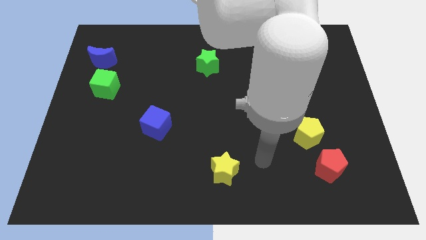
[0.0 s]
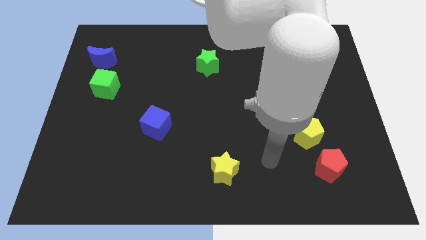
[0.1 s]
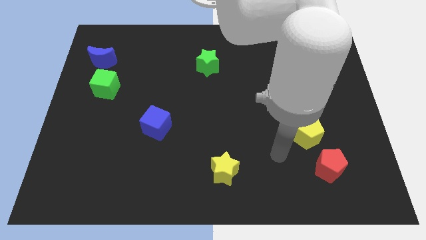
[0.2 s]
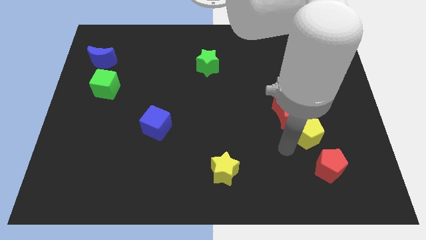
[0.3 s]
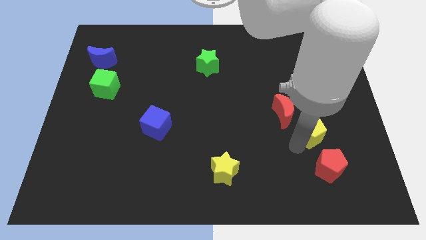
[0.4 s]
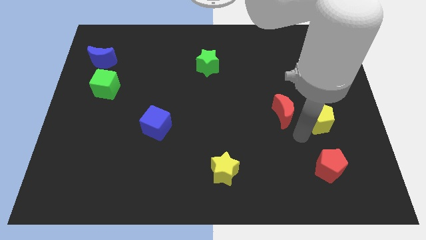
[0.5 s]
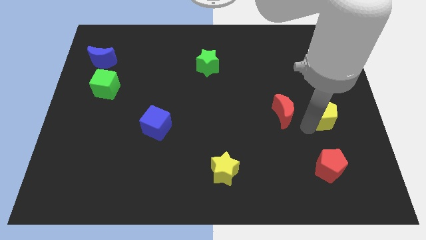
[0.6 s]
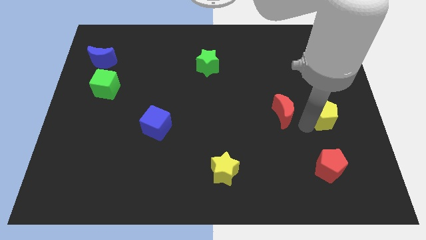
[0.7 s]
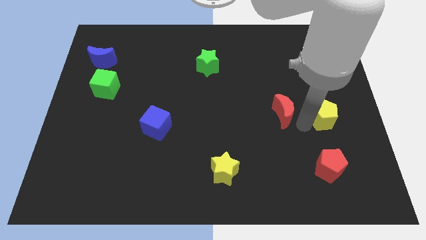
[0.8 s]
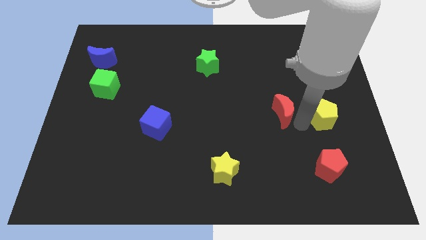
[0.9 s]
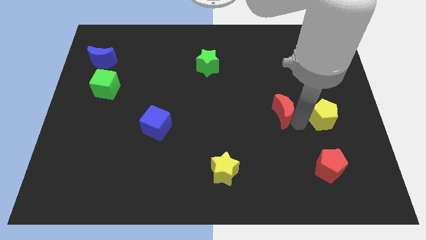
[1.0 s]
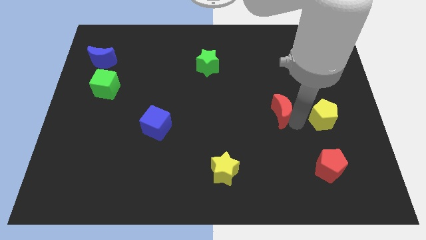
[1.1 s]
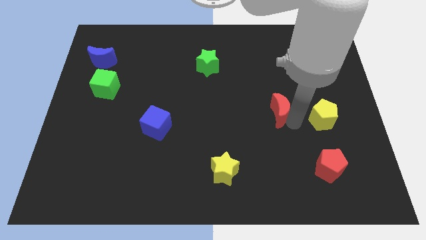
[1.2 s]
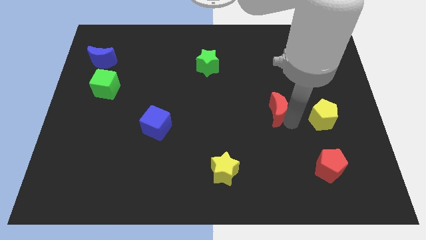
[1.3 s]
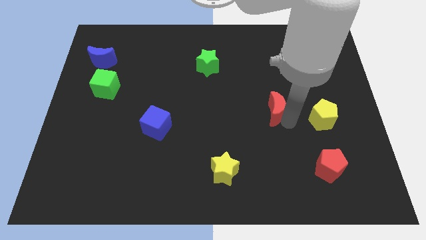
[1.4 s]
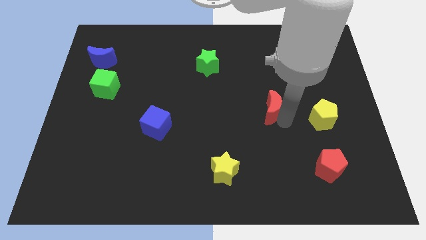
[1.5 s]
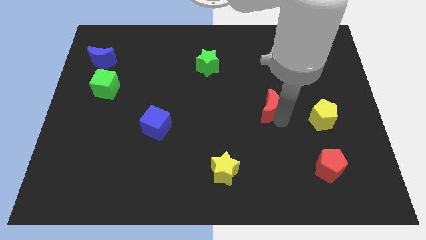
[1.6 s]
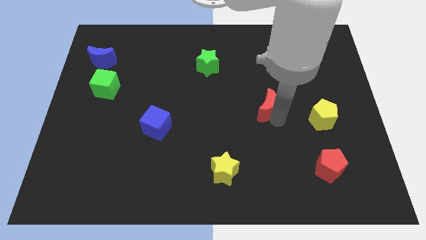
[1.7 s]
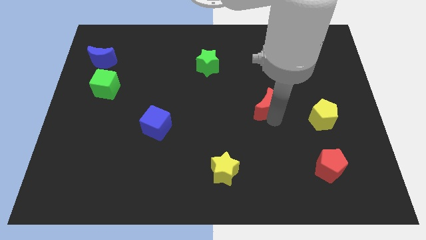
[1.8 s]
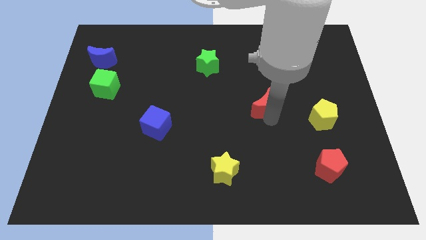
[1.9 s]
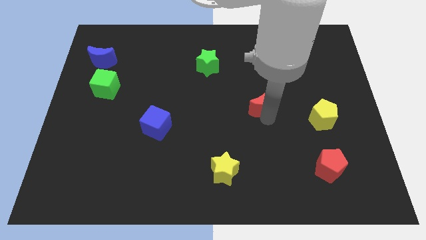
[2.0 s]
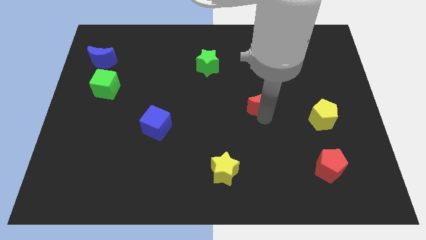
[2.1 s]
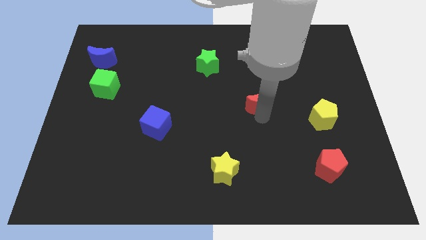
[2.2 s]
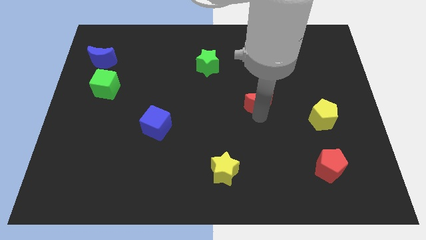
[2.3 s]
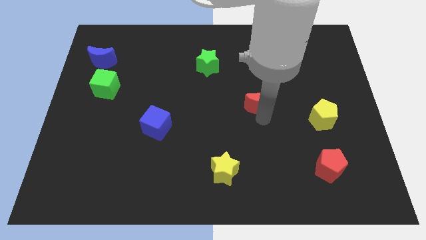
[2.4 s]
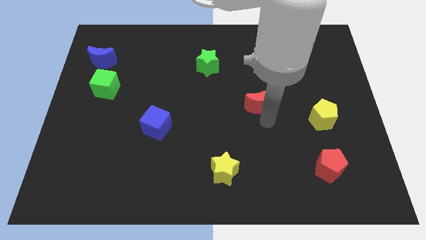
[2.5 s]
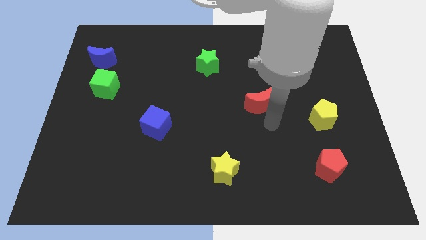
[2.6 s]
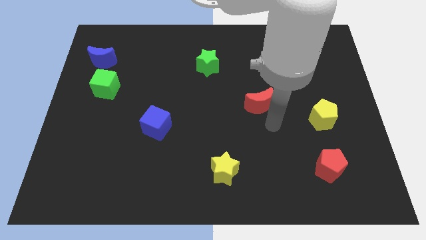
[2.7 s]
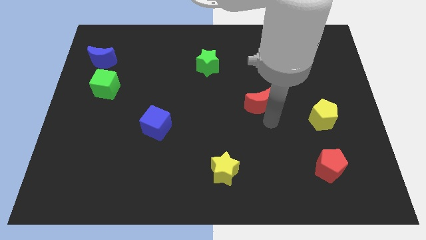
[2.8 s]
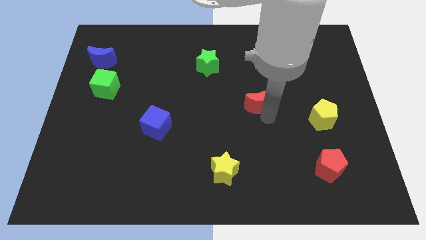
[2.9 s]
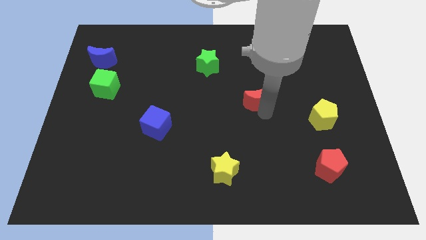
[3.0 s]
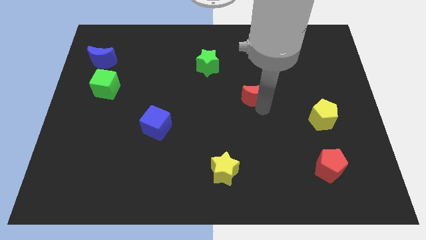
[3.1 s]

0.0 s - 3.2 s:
push the red moon diagonally upwards and left a little

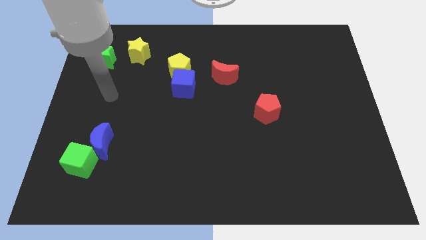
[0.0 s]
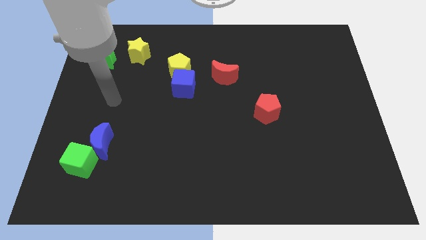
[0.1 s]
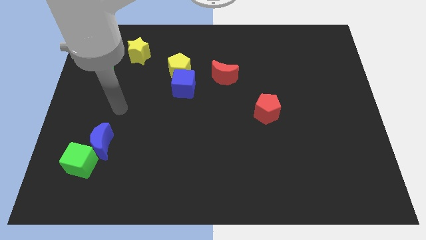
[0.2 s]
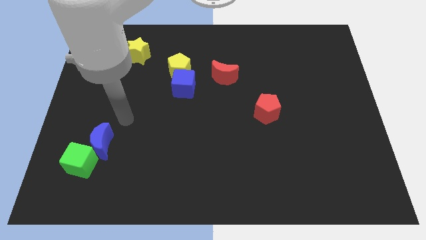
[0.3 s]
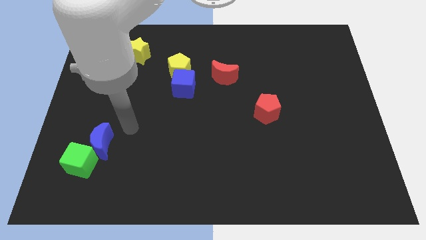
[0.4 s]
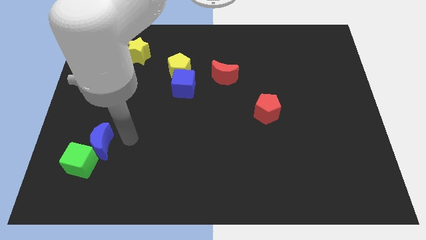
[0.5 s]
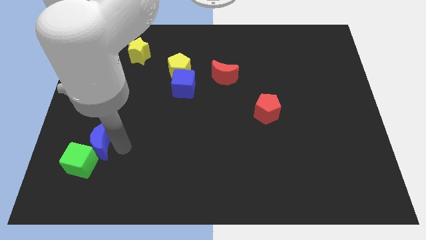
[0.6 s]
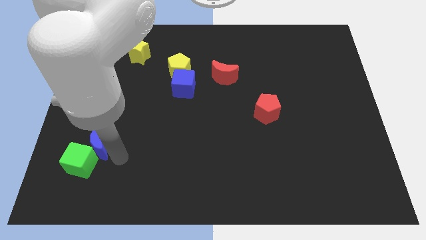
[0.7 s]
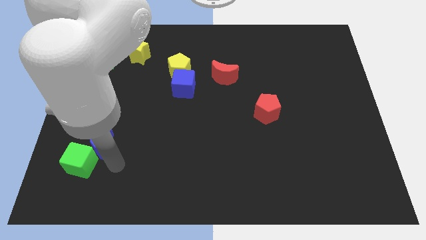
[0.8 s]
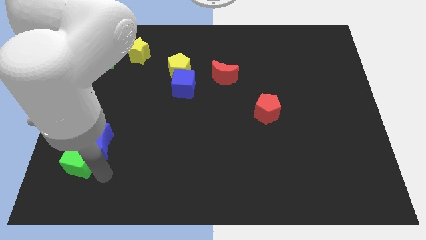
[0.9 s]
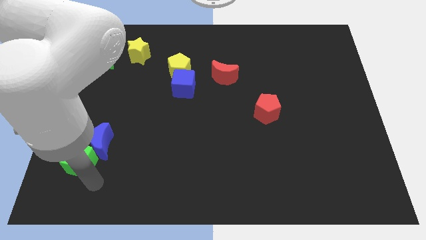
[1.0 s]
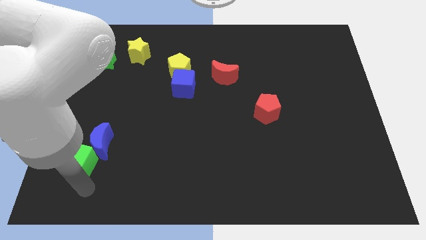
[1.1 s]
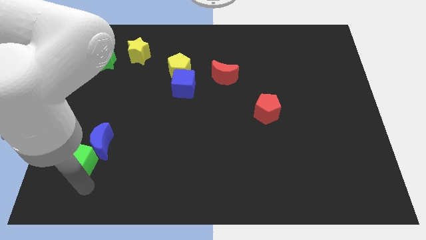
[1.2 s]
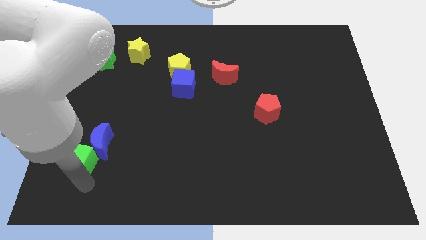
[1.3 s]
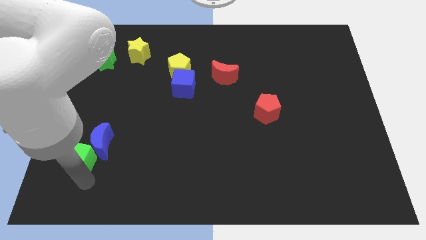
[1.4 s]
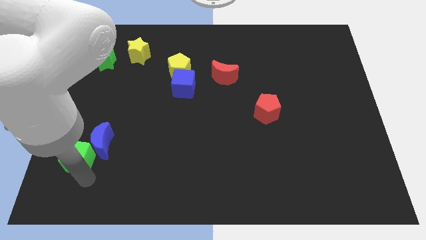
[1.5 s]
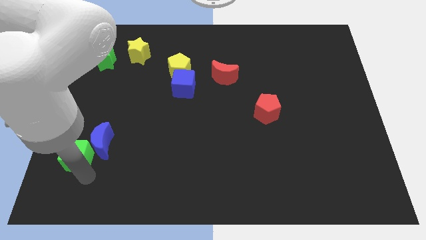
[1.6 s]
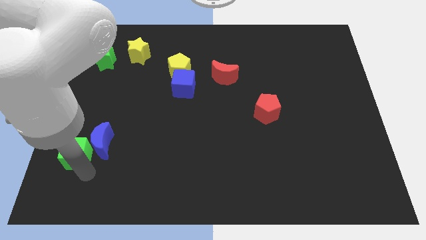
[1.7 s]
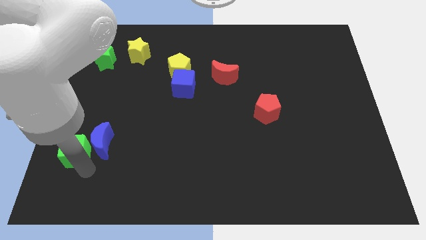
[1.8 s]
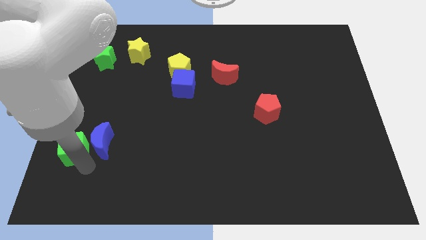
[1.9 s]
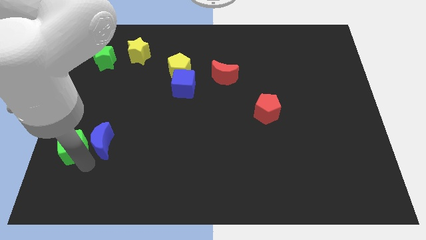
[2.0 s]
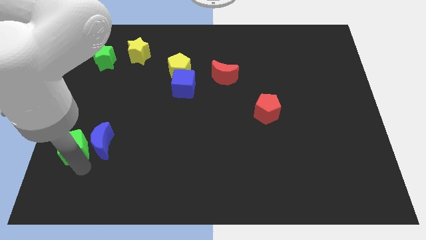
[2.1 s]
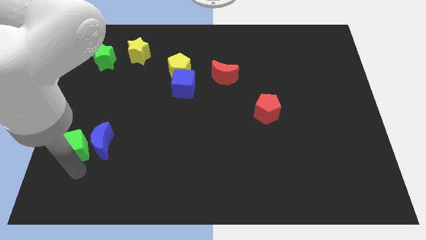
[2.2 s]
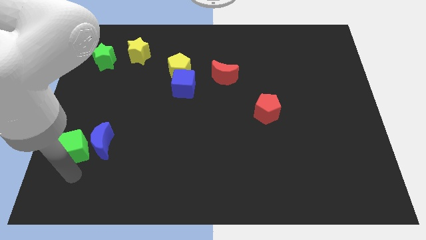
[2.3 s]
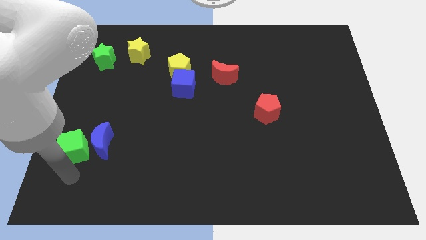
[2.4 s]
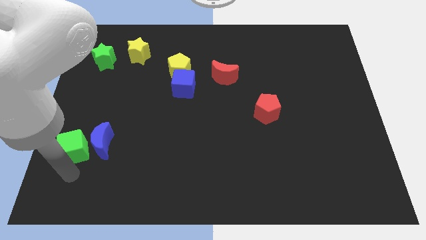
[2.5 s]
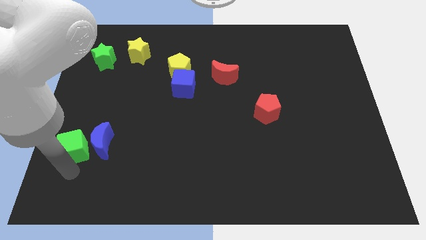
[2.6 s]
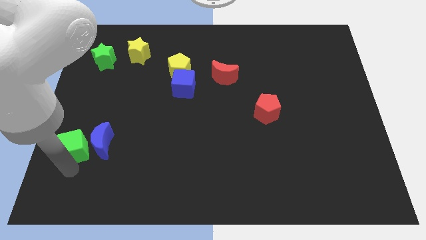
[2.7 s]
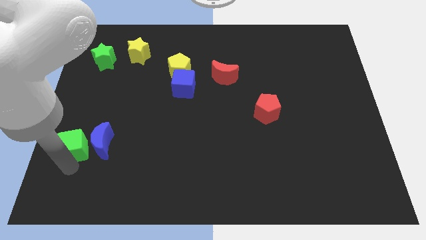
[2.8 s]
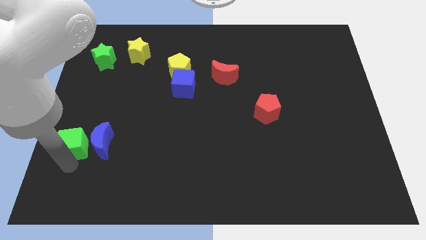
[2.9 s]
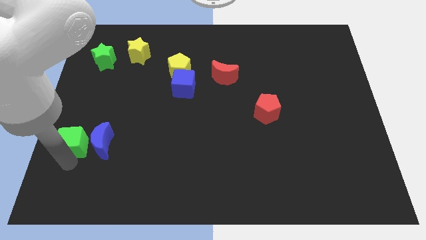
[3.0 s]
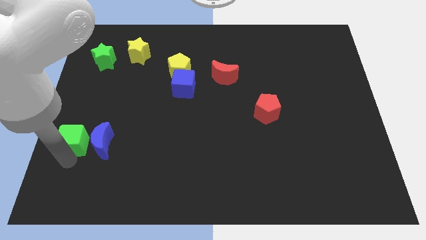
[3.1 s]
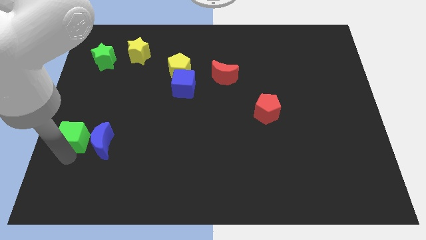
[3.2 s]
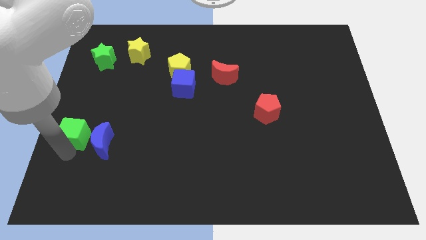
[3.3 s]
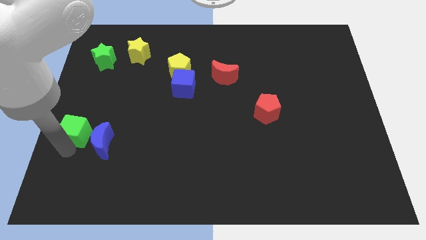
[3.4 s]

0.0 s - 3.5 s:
push the green cube upwards somewhat

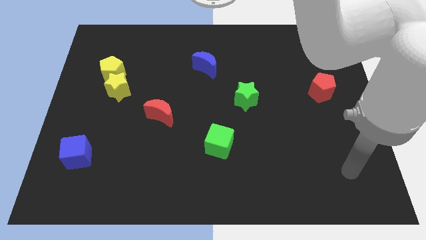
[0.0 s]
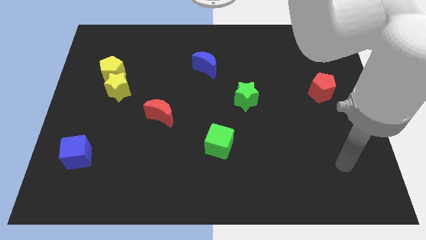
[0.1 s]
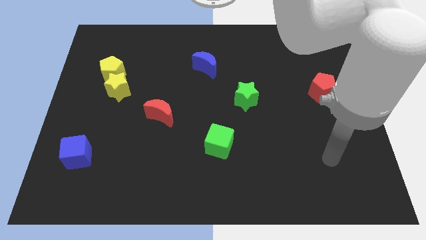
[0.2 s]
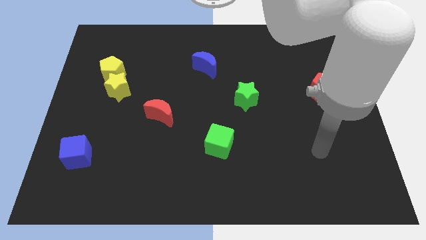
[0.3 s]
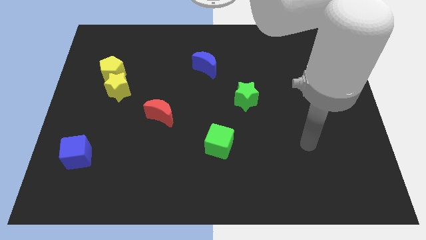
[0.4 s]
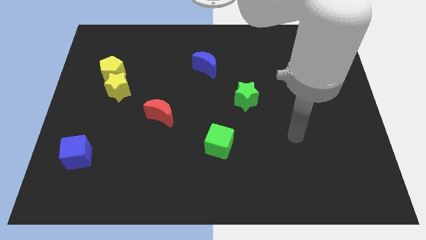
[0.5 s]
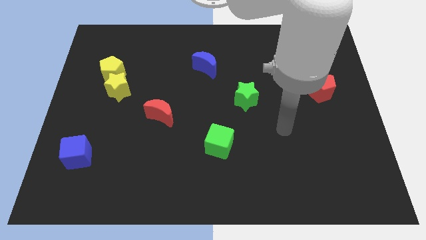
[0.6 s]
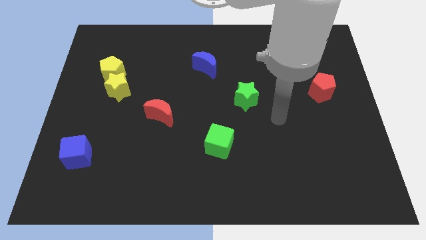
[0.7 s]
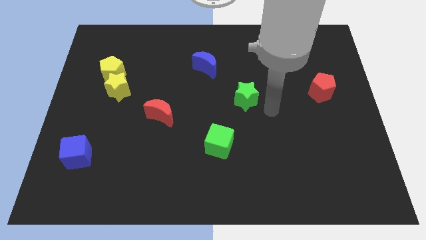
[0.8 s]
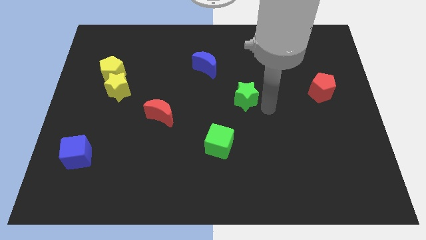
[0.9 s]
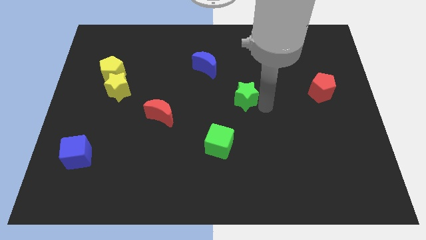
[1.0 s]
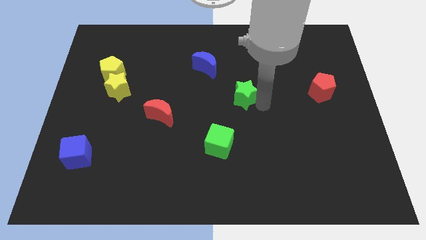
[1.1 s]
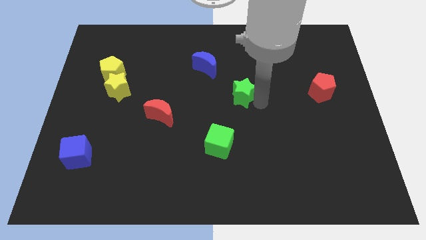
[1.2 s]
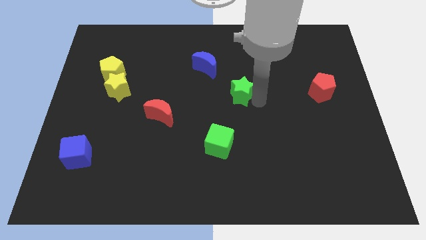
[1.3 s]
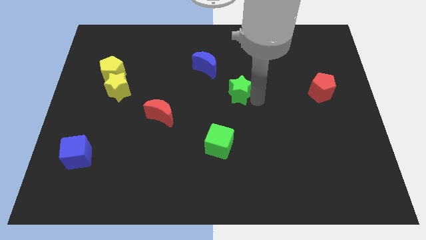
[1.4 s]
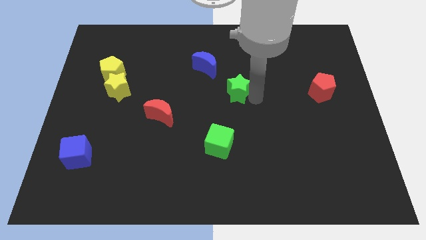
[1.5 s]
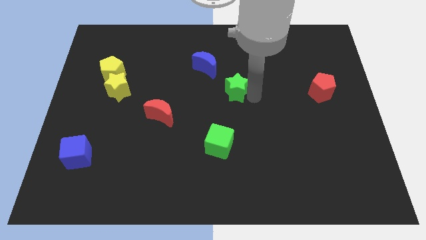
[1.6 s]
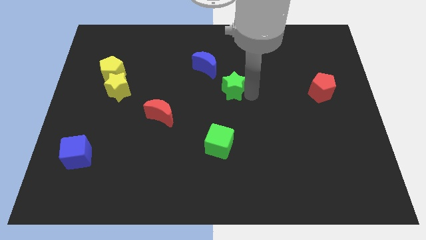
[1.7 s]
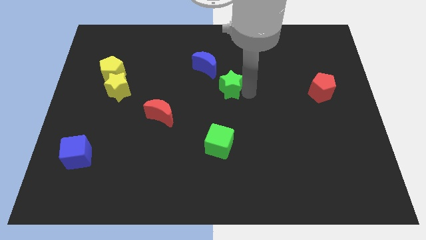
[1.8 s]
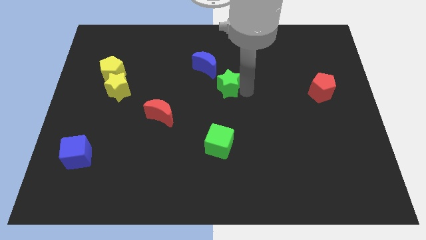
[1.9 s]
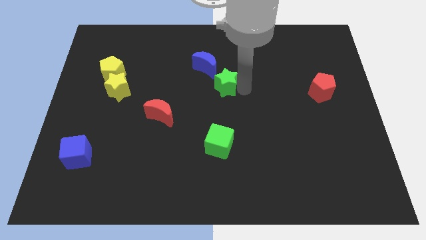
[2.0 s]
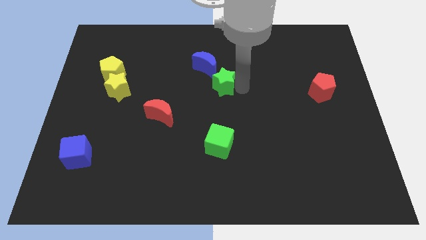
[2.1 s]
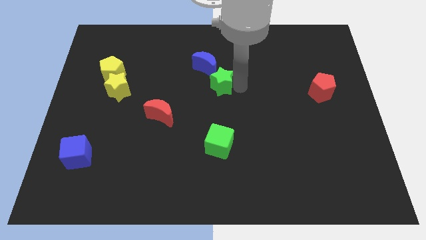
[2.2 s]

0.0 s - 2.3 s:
move the green star somewhat upwards and then to the left
